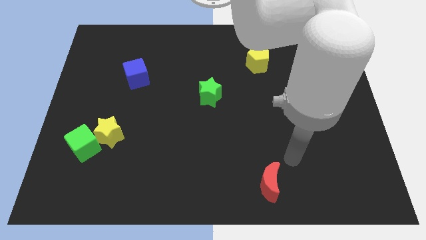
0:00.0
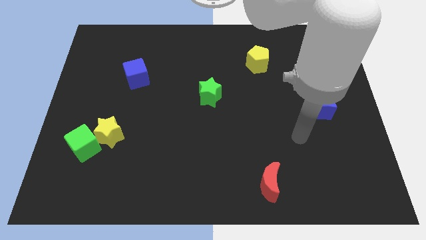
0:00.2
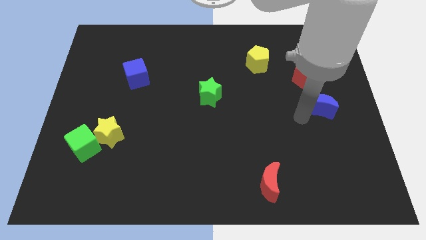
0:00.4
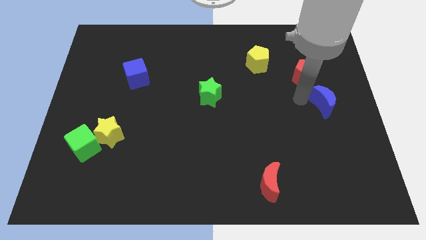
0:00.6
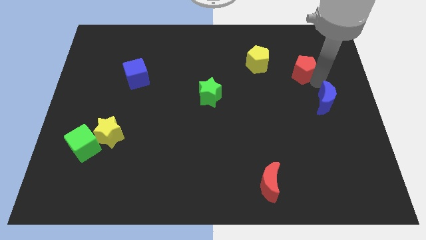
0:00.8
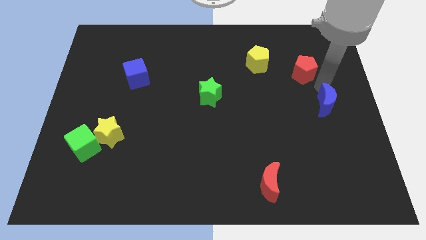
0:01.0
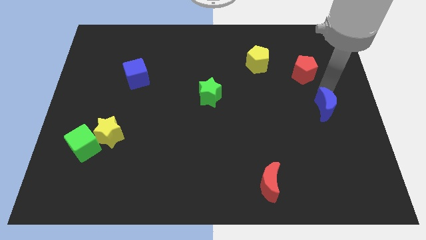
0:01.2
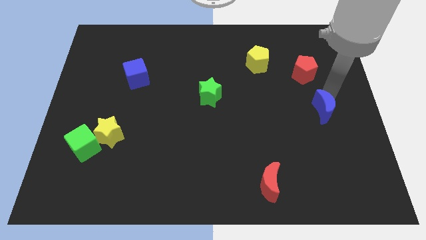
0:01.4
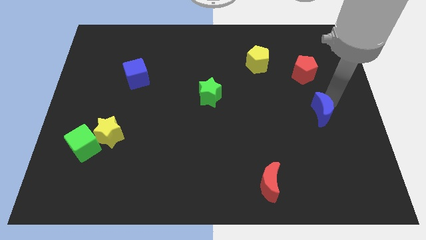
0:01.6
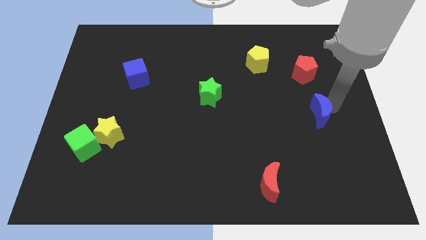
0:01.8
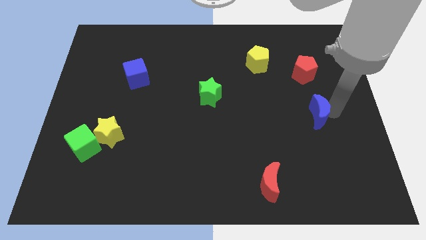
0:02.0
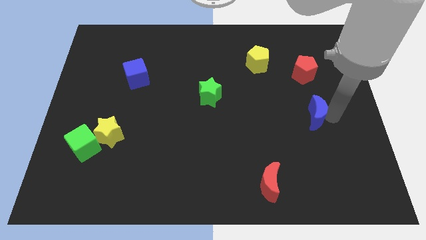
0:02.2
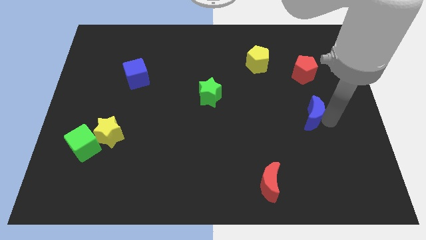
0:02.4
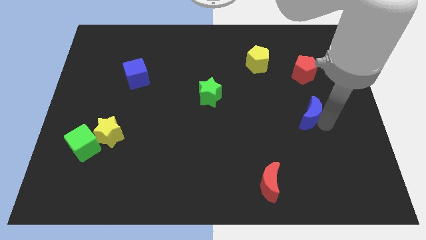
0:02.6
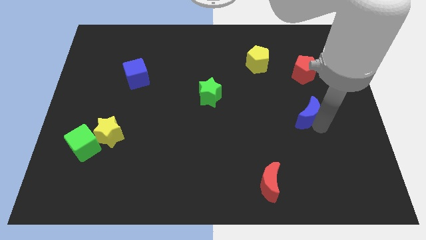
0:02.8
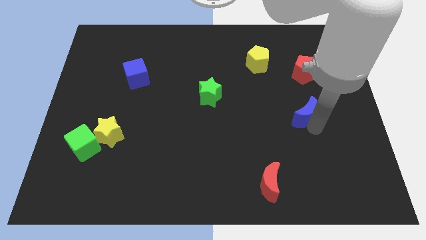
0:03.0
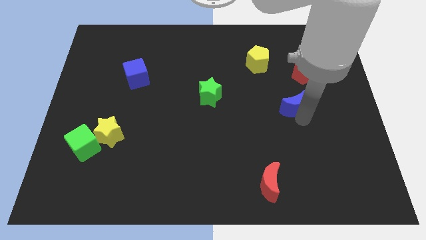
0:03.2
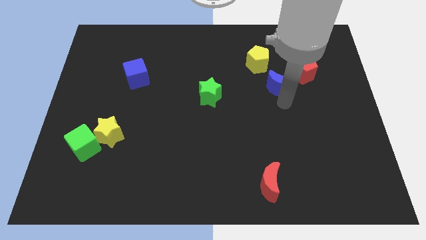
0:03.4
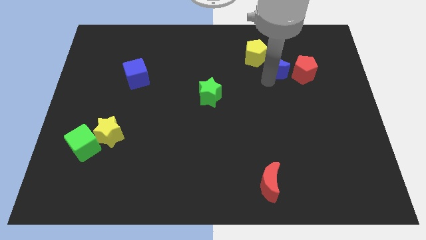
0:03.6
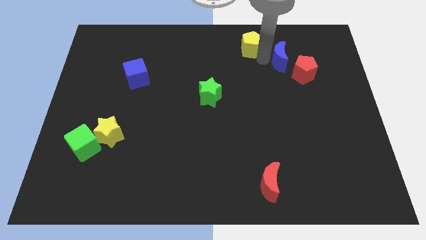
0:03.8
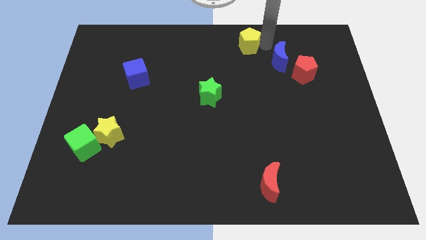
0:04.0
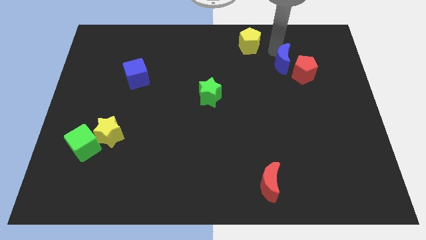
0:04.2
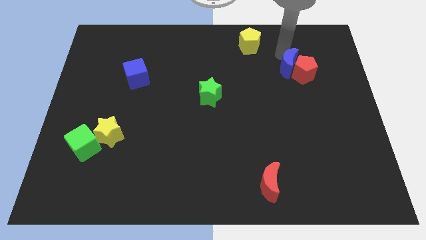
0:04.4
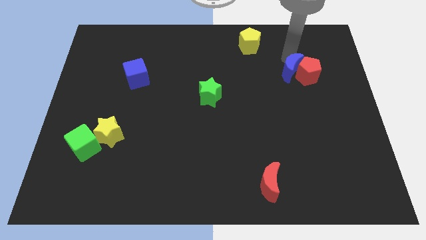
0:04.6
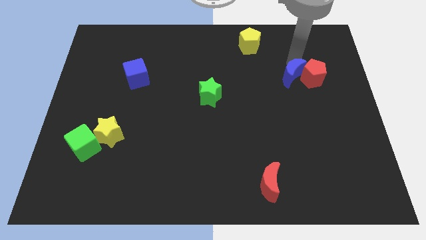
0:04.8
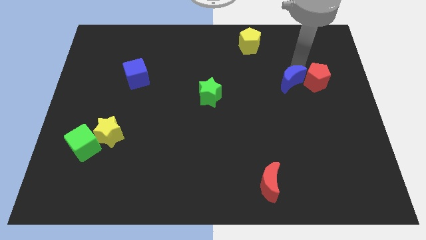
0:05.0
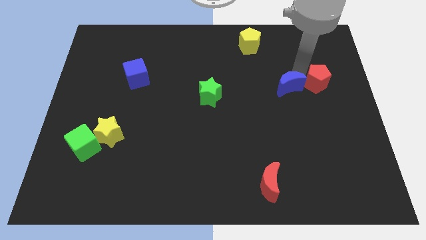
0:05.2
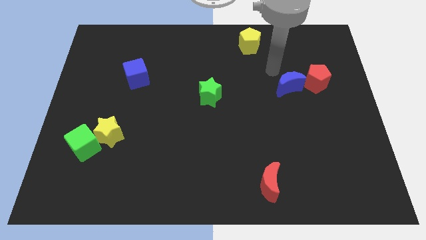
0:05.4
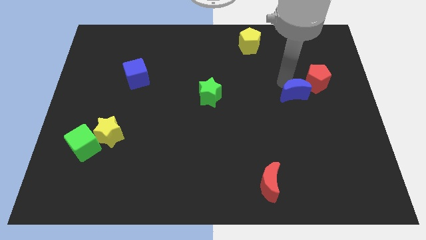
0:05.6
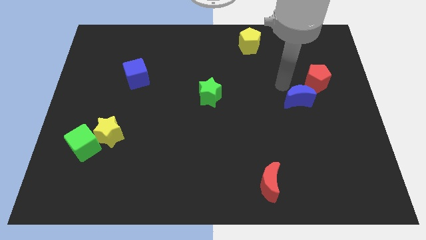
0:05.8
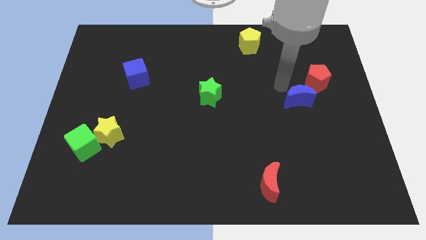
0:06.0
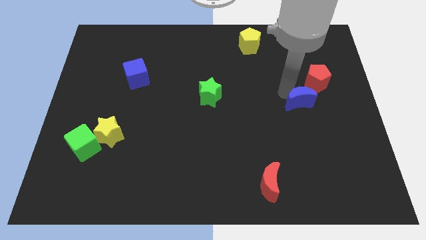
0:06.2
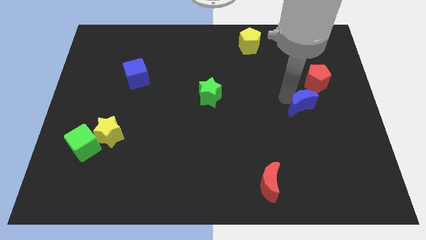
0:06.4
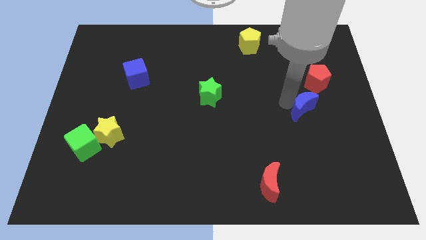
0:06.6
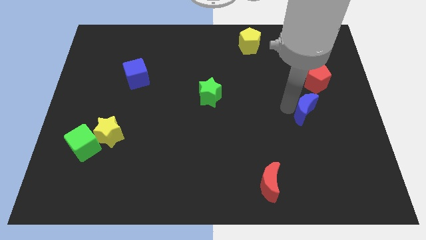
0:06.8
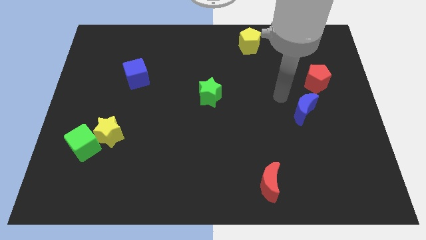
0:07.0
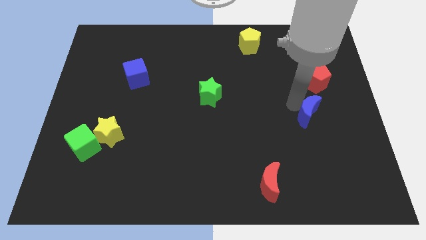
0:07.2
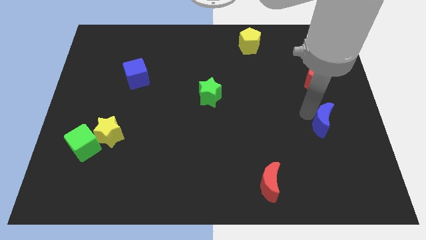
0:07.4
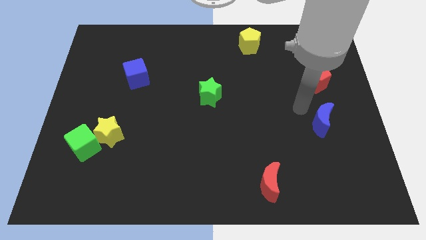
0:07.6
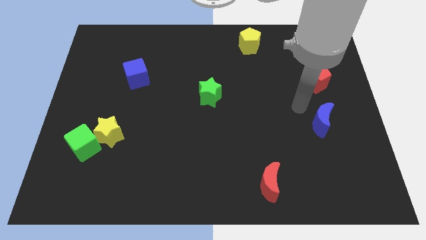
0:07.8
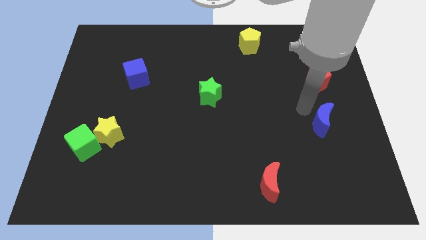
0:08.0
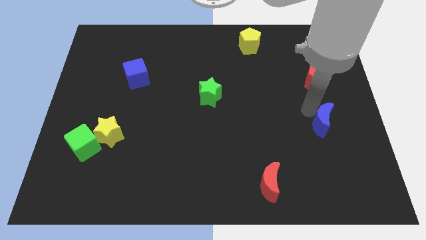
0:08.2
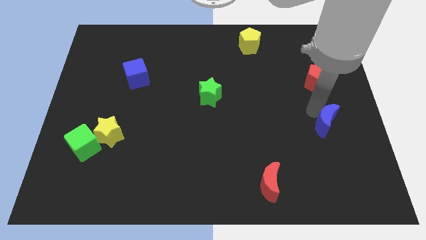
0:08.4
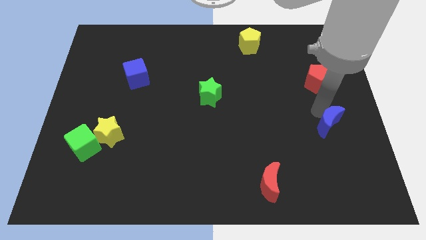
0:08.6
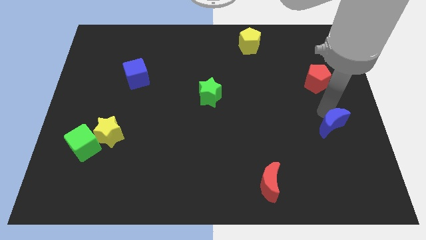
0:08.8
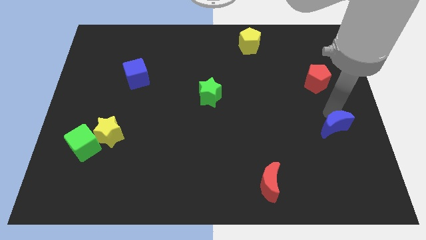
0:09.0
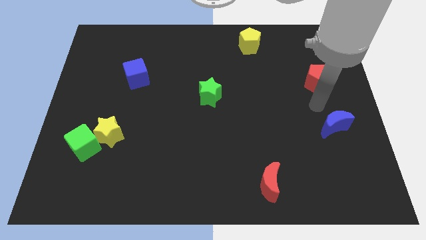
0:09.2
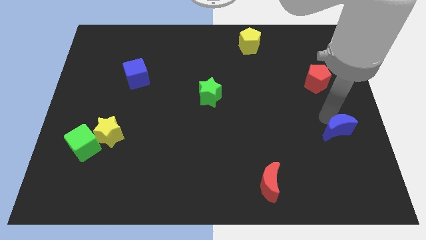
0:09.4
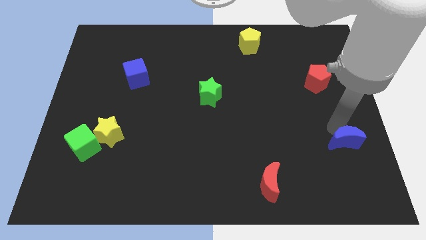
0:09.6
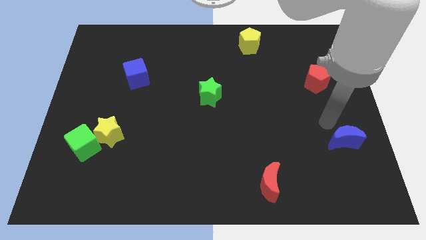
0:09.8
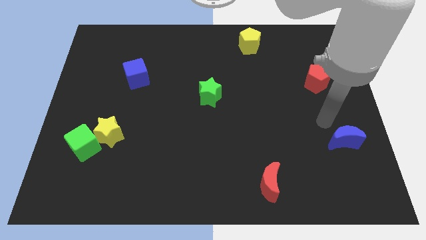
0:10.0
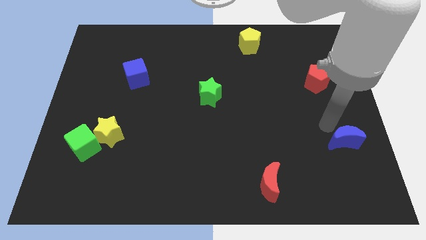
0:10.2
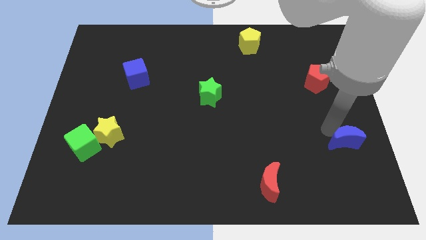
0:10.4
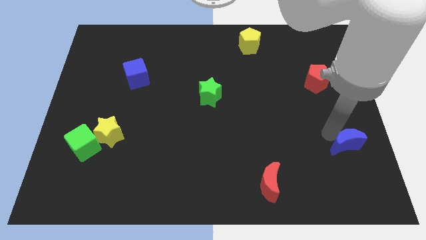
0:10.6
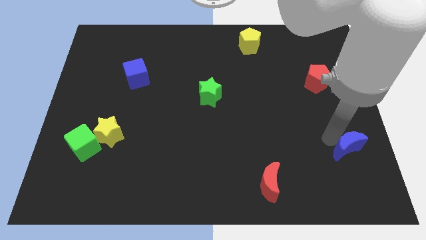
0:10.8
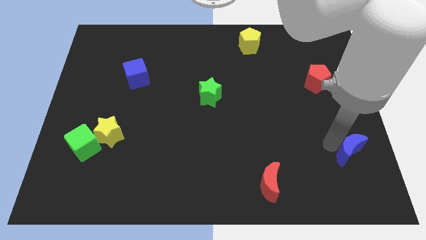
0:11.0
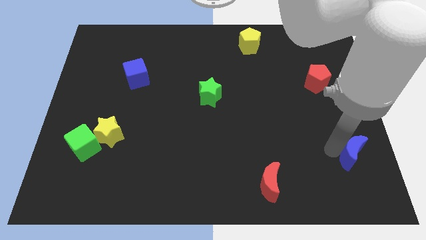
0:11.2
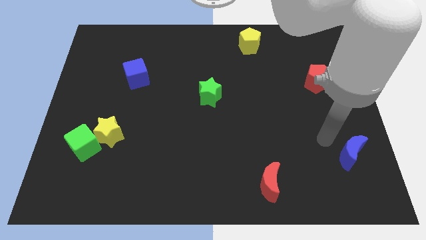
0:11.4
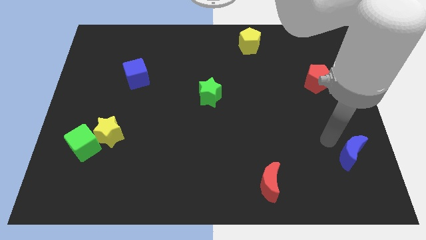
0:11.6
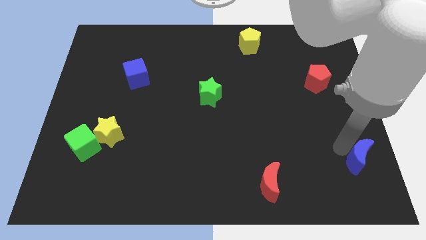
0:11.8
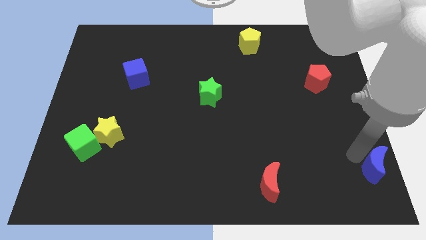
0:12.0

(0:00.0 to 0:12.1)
slide the blue moon to the bottom right of the board
